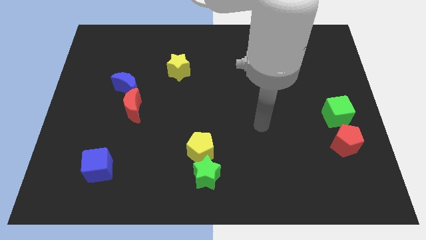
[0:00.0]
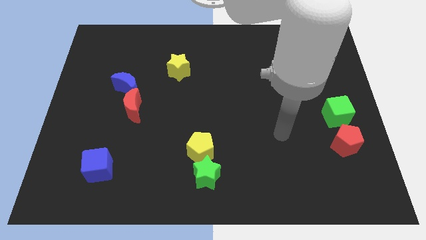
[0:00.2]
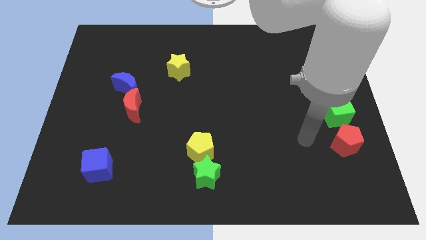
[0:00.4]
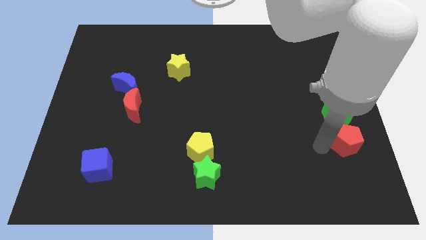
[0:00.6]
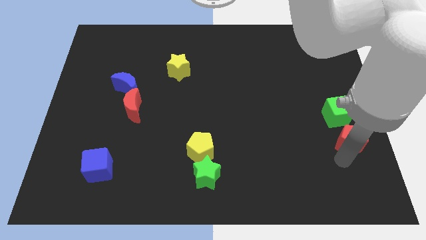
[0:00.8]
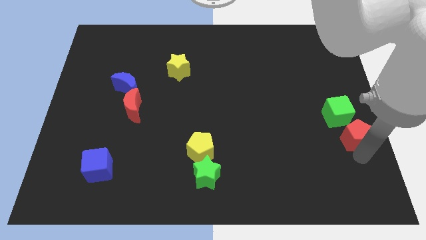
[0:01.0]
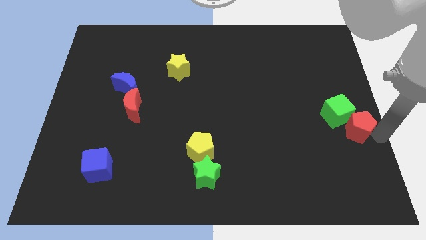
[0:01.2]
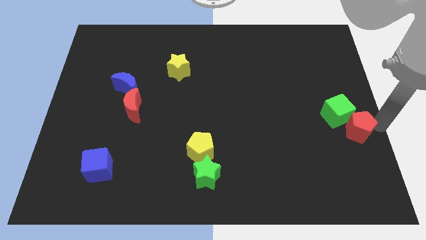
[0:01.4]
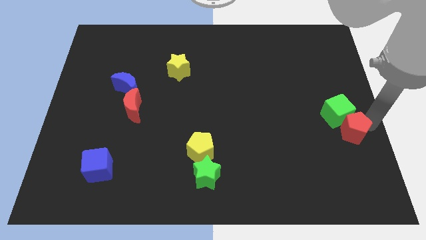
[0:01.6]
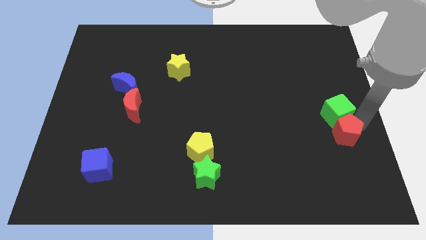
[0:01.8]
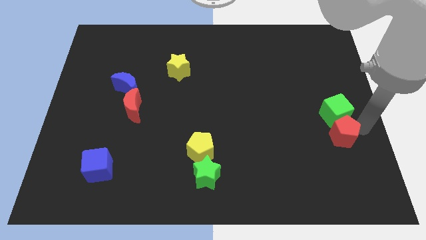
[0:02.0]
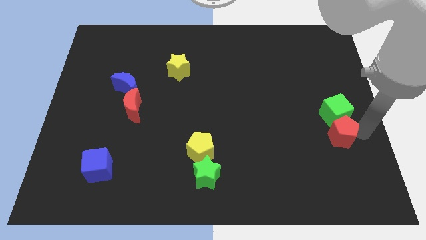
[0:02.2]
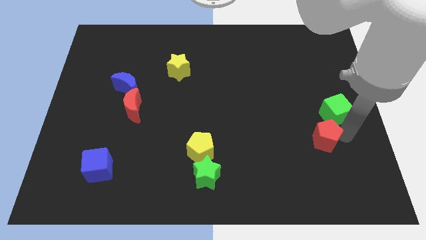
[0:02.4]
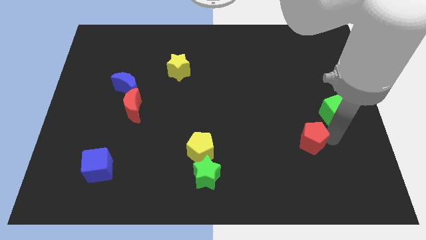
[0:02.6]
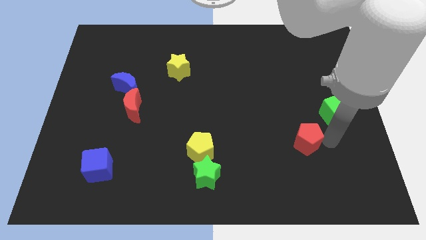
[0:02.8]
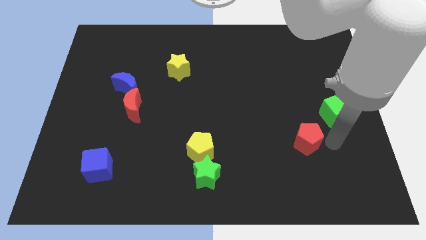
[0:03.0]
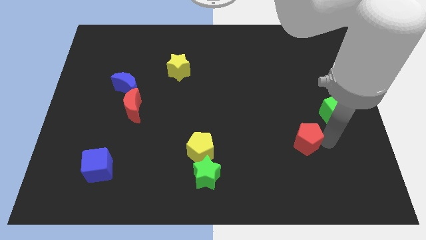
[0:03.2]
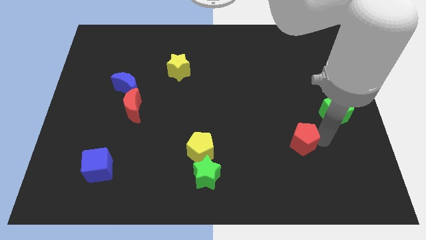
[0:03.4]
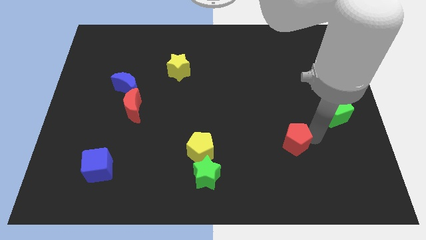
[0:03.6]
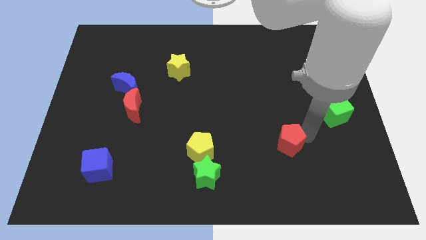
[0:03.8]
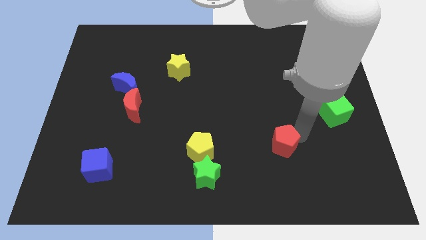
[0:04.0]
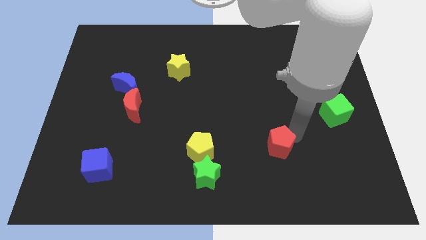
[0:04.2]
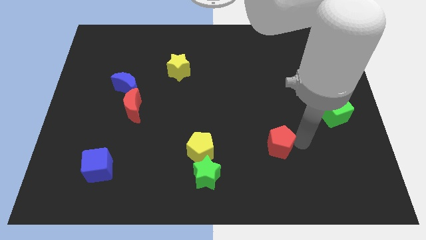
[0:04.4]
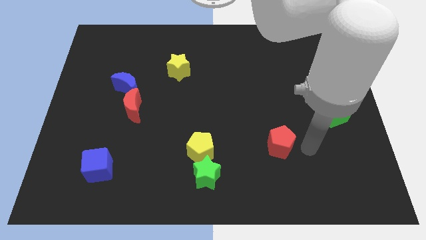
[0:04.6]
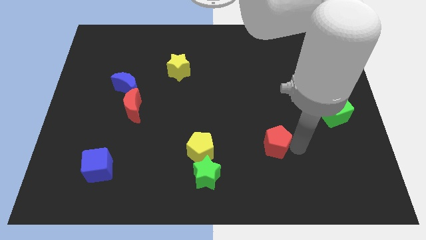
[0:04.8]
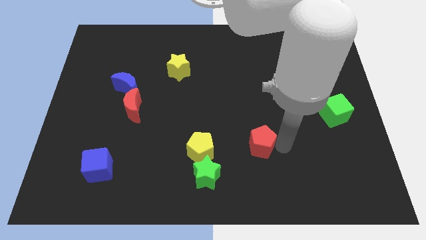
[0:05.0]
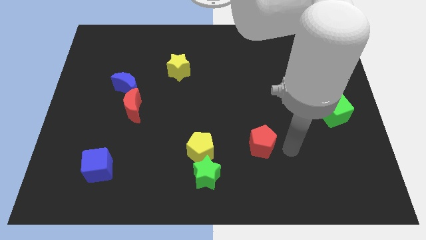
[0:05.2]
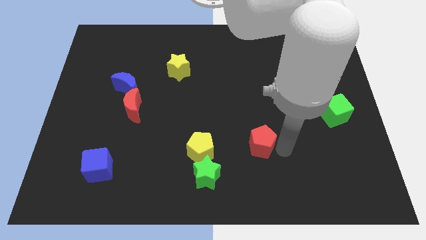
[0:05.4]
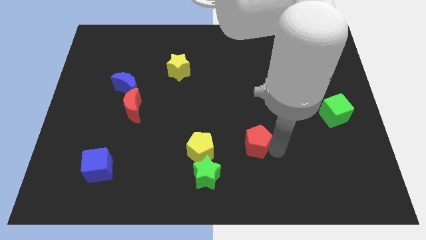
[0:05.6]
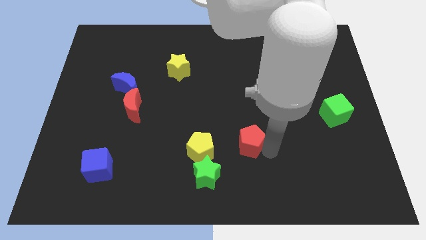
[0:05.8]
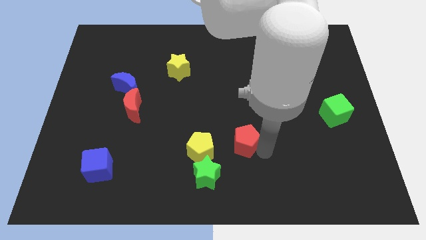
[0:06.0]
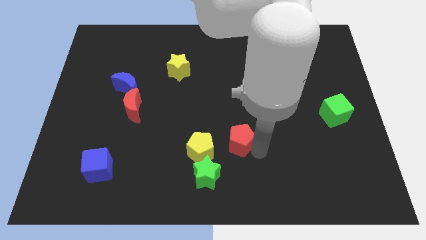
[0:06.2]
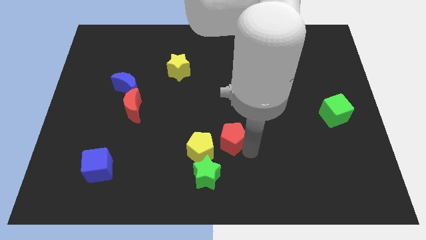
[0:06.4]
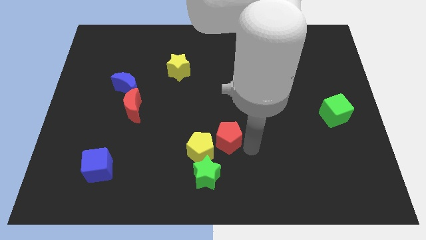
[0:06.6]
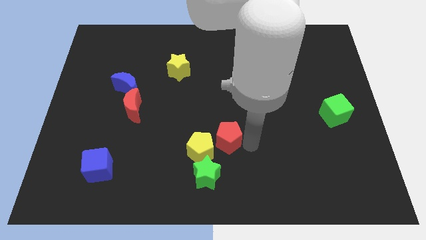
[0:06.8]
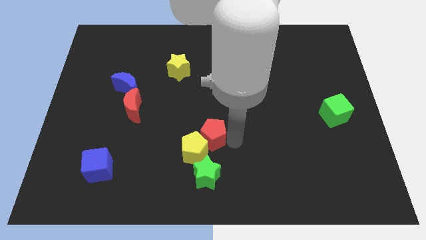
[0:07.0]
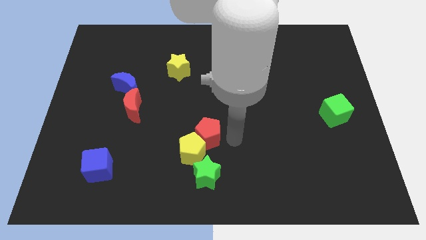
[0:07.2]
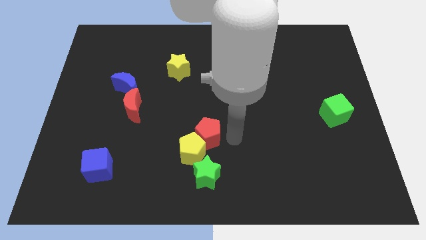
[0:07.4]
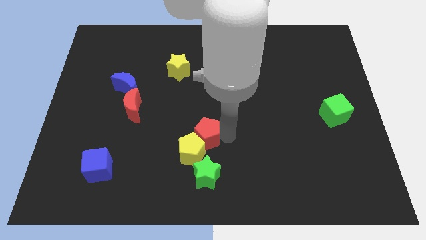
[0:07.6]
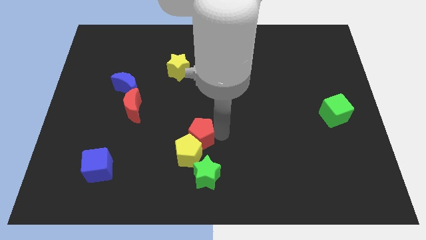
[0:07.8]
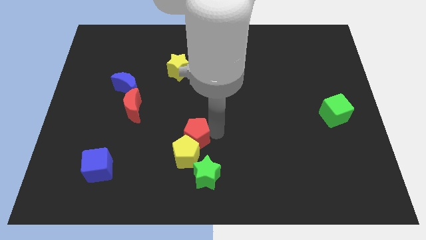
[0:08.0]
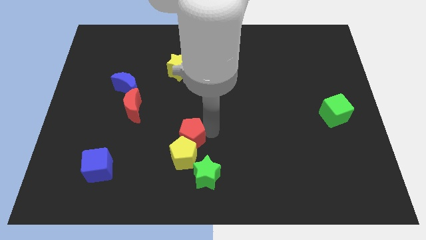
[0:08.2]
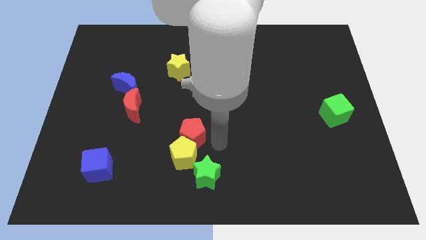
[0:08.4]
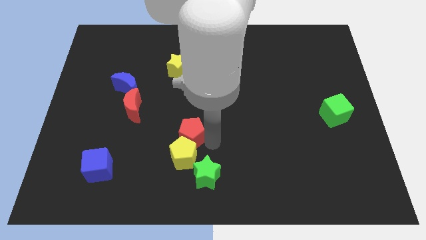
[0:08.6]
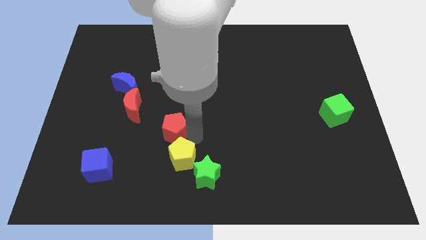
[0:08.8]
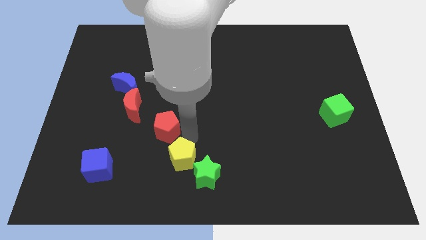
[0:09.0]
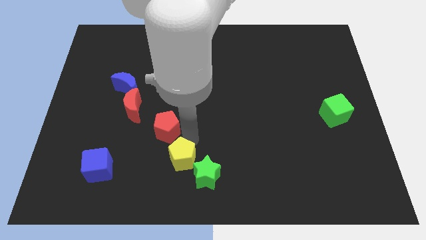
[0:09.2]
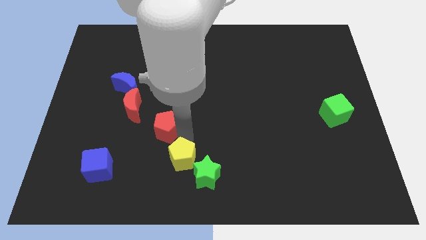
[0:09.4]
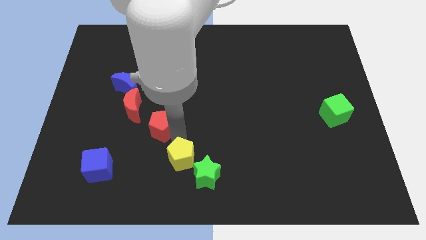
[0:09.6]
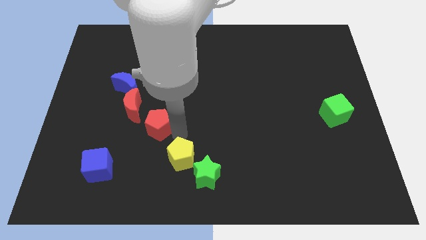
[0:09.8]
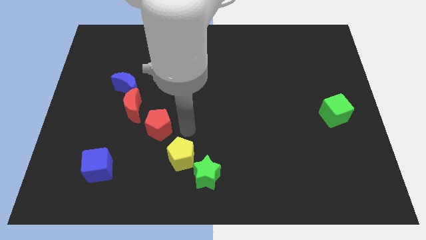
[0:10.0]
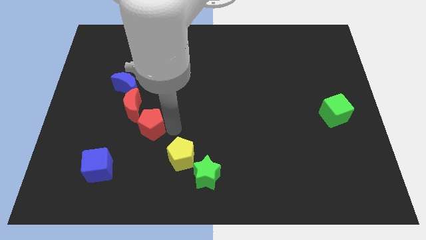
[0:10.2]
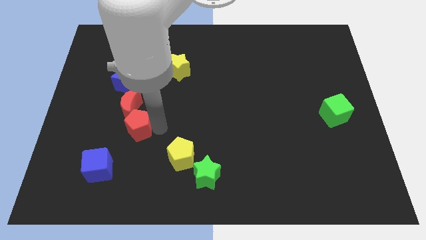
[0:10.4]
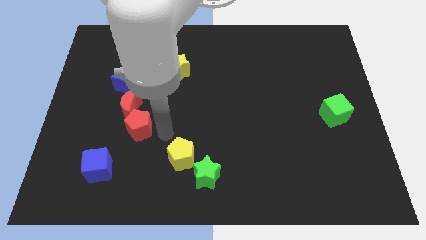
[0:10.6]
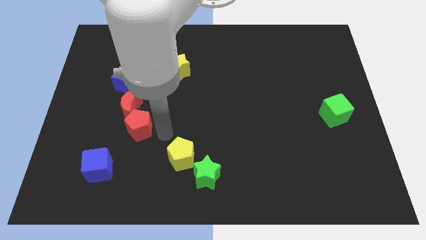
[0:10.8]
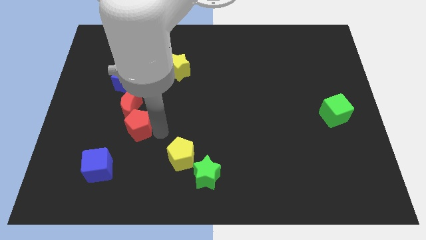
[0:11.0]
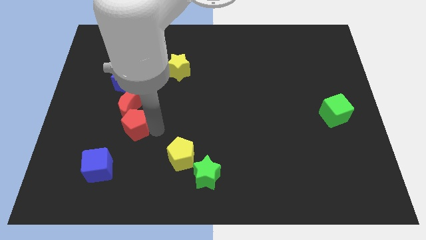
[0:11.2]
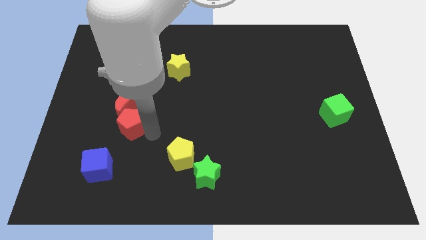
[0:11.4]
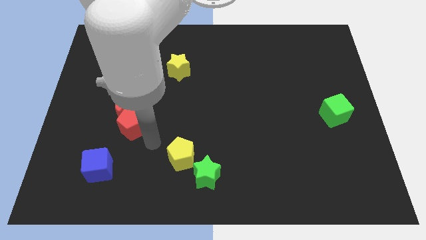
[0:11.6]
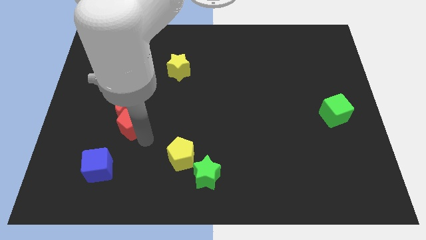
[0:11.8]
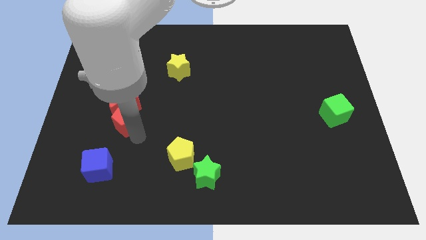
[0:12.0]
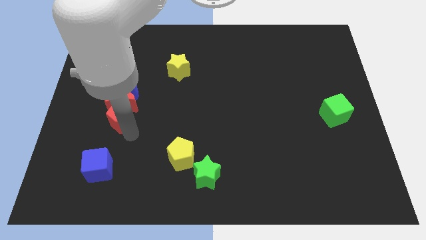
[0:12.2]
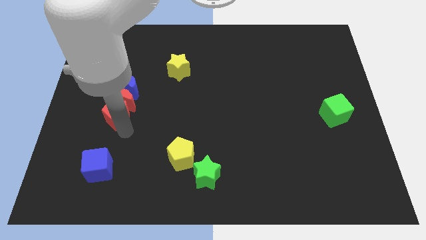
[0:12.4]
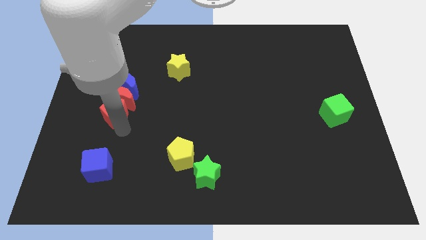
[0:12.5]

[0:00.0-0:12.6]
move the red pentagon to the bottom left side of the blue moon

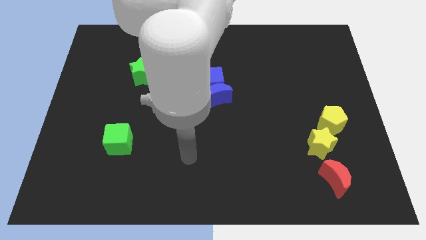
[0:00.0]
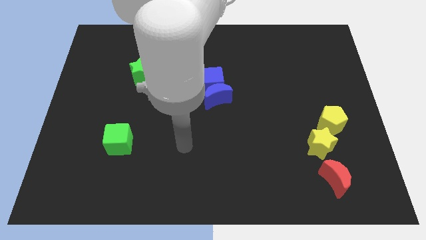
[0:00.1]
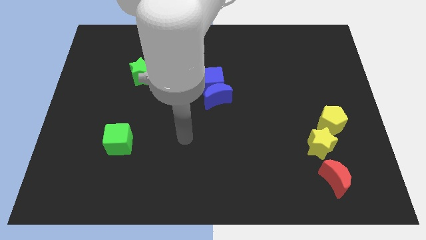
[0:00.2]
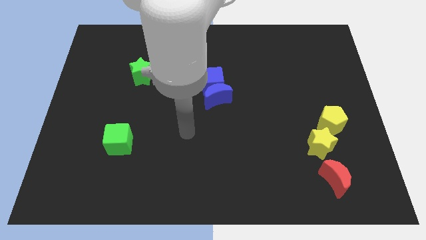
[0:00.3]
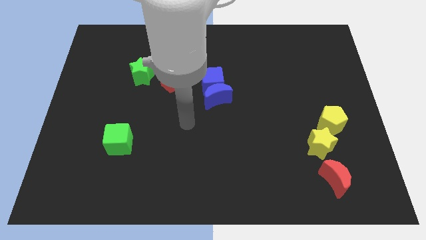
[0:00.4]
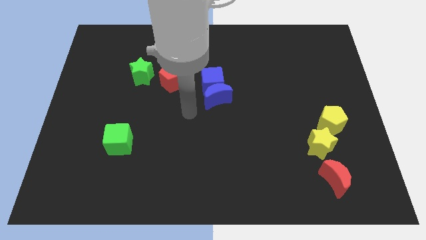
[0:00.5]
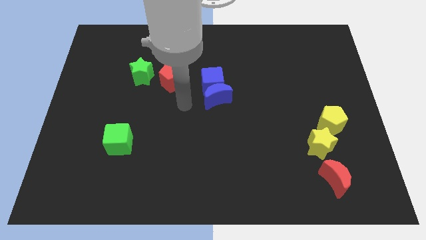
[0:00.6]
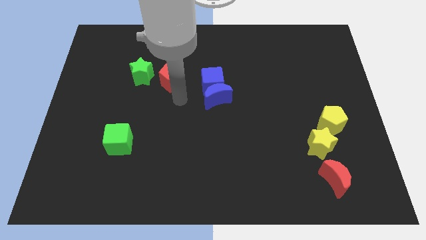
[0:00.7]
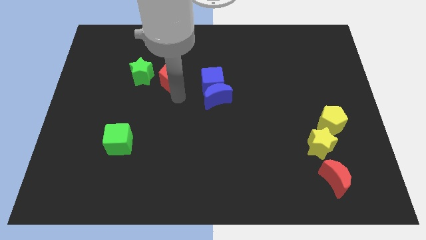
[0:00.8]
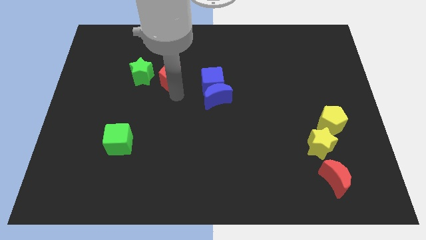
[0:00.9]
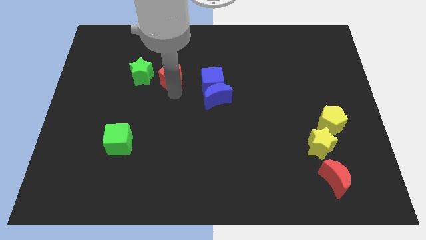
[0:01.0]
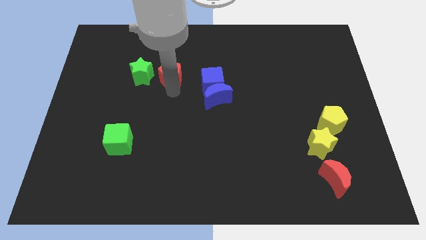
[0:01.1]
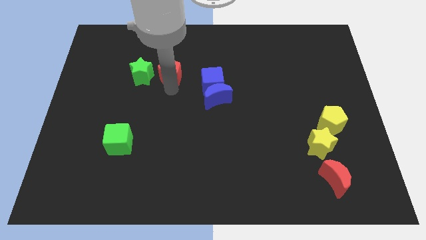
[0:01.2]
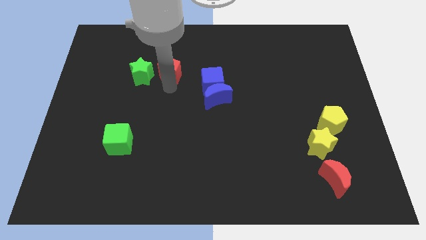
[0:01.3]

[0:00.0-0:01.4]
push the red pentagon to the top right of the green star

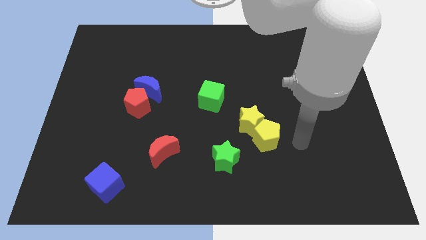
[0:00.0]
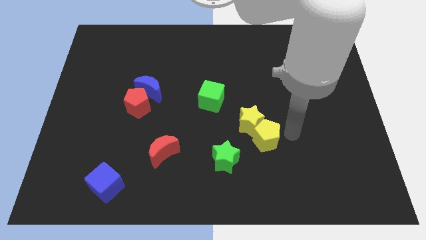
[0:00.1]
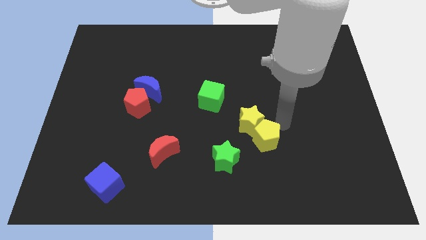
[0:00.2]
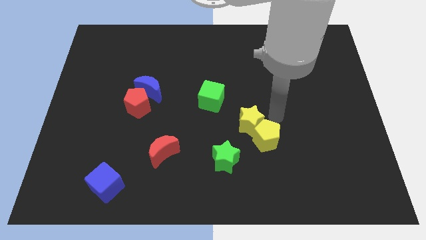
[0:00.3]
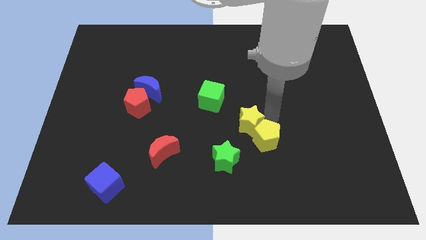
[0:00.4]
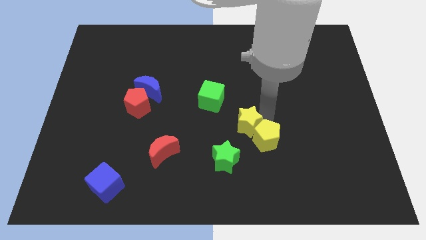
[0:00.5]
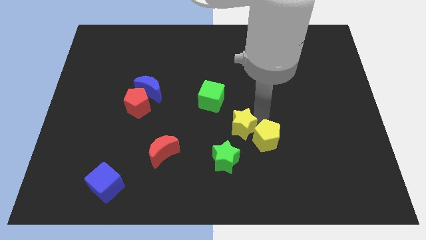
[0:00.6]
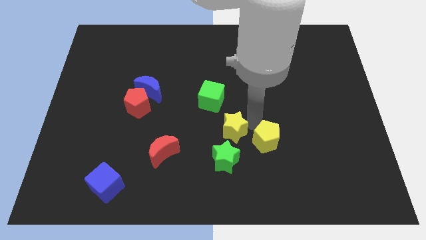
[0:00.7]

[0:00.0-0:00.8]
put the yellow star below the green cube

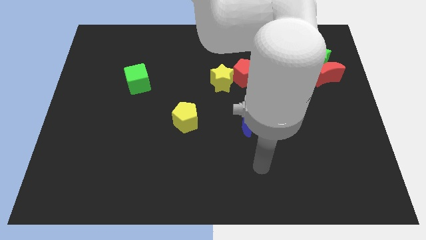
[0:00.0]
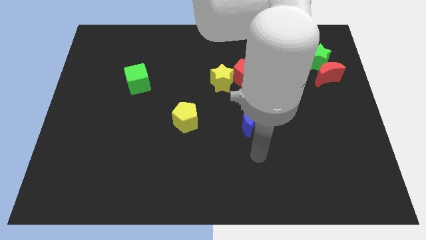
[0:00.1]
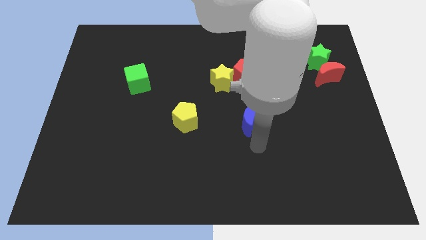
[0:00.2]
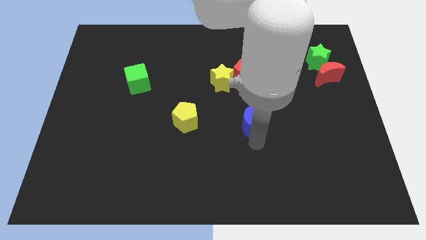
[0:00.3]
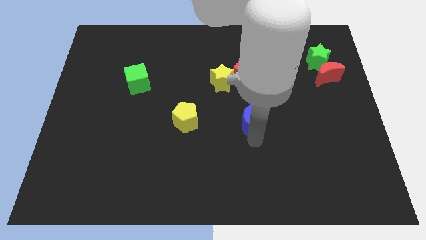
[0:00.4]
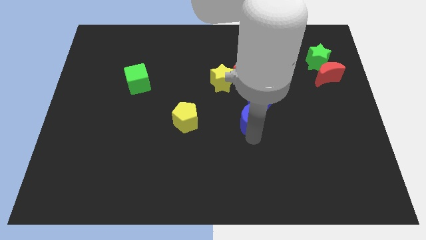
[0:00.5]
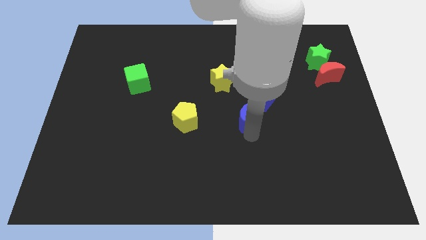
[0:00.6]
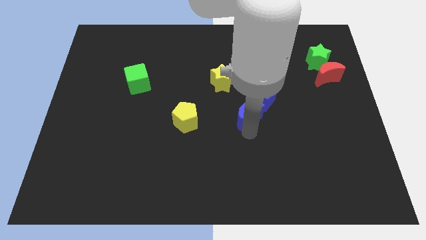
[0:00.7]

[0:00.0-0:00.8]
move the blue moon to the bottom right of the yellow star
